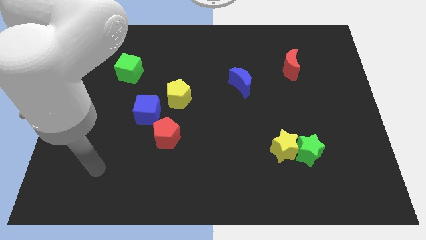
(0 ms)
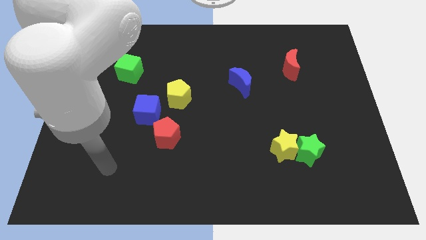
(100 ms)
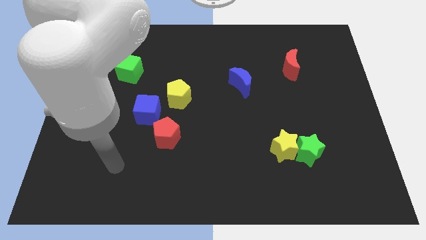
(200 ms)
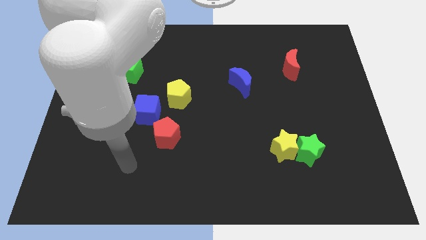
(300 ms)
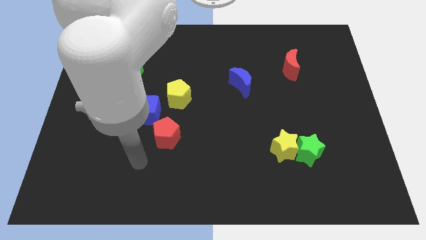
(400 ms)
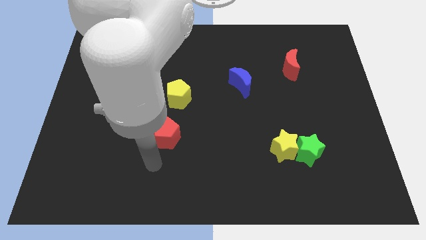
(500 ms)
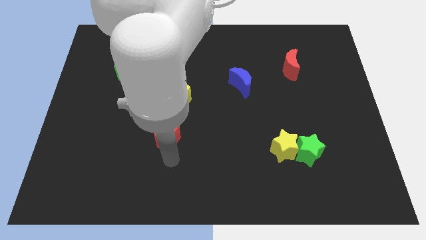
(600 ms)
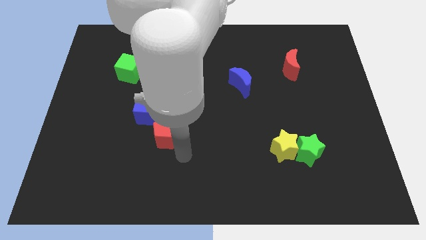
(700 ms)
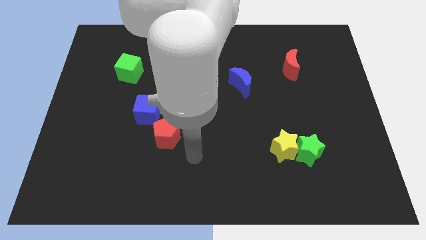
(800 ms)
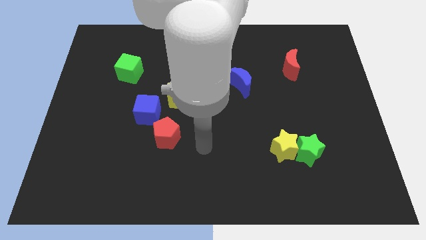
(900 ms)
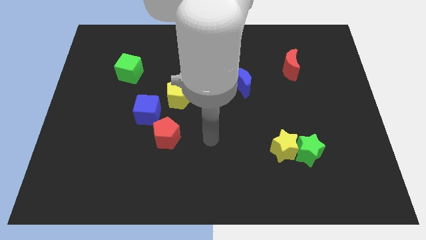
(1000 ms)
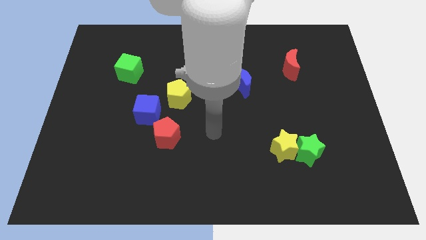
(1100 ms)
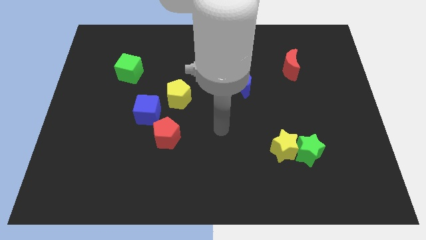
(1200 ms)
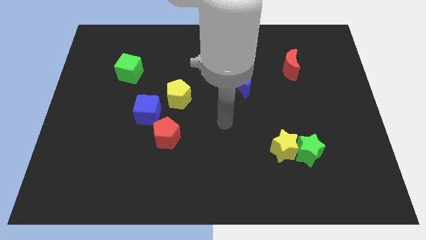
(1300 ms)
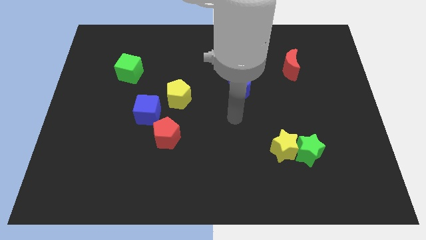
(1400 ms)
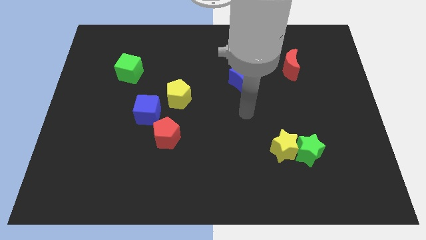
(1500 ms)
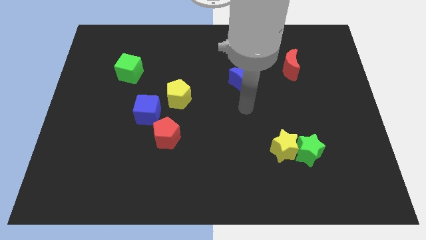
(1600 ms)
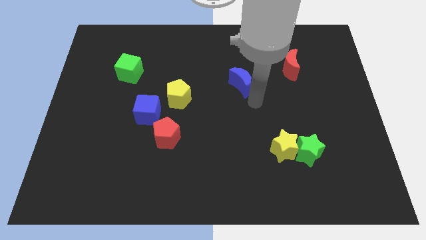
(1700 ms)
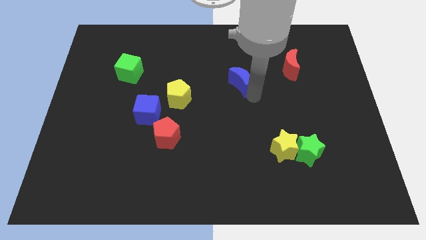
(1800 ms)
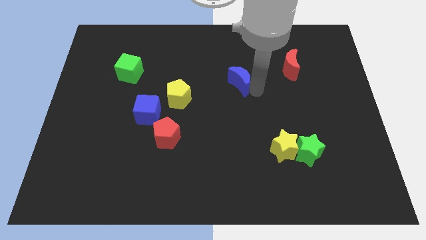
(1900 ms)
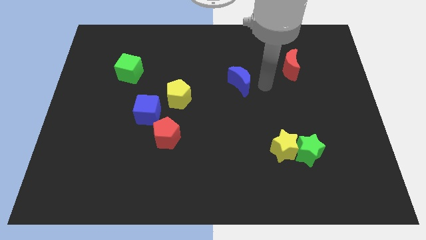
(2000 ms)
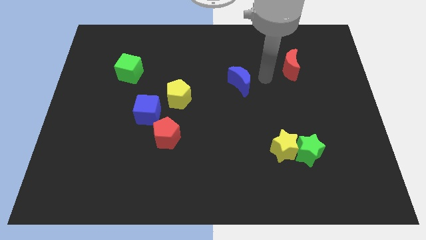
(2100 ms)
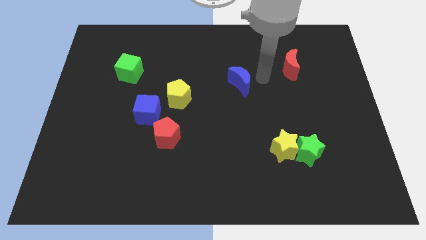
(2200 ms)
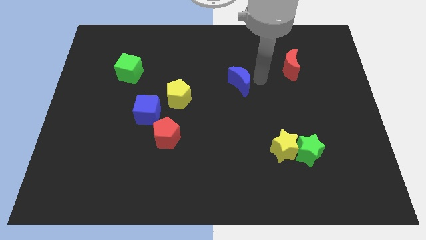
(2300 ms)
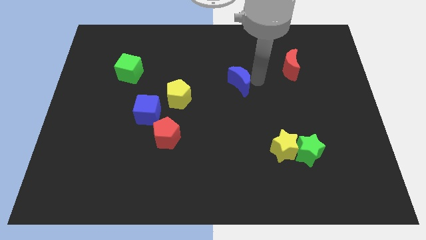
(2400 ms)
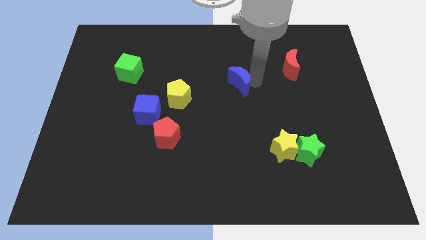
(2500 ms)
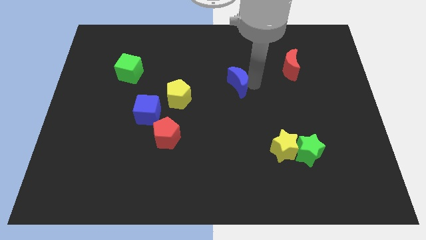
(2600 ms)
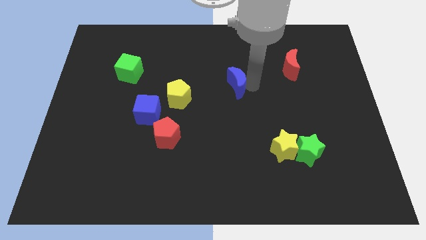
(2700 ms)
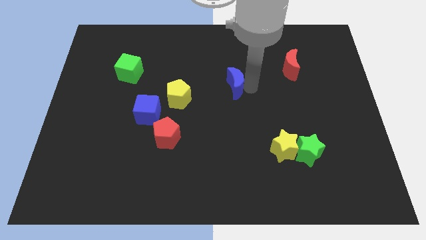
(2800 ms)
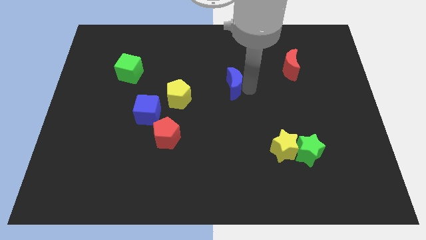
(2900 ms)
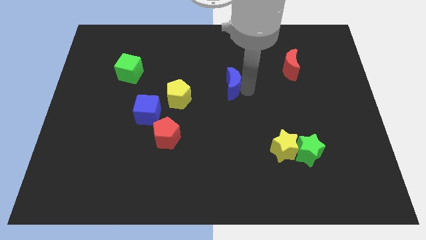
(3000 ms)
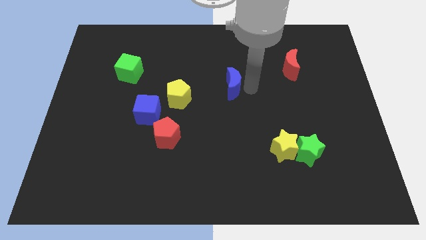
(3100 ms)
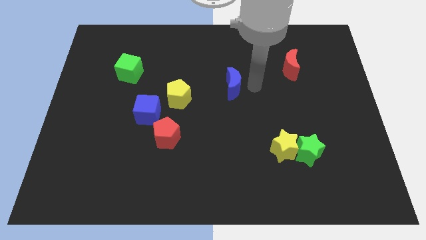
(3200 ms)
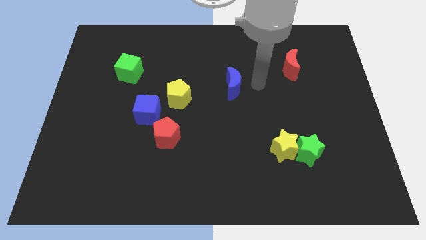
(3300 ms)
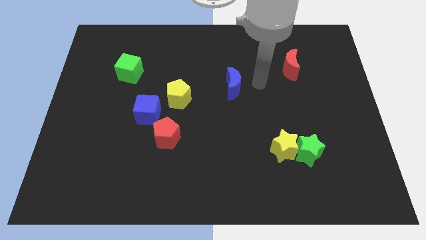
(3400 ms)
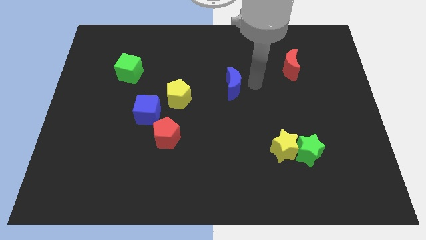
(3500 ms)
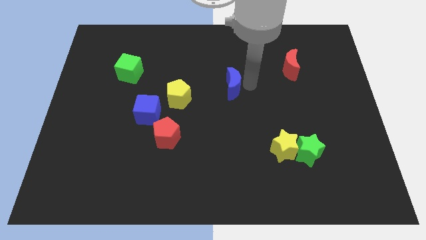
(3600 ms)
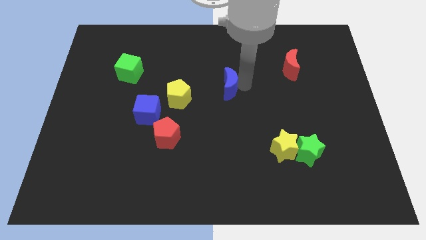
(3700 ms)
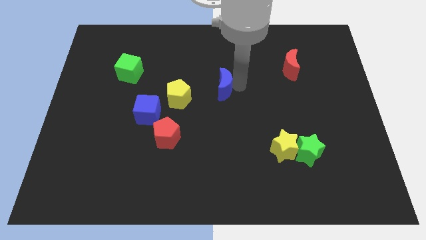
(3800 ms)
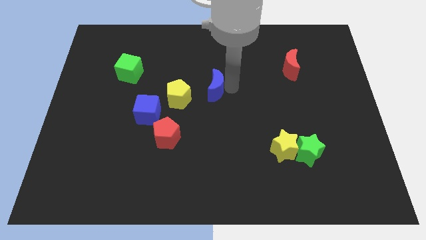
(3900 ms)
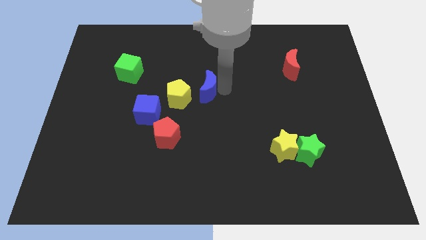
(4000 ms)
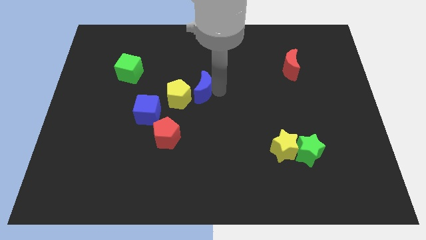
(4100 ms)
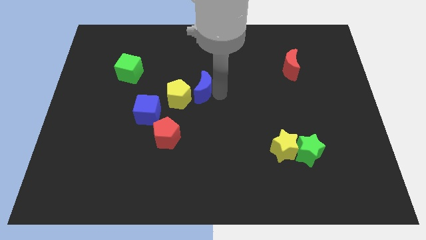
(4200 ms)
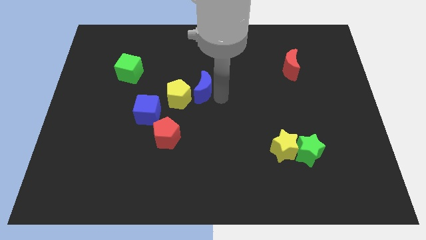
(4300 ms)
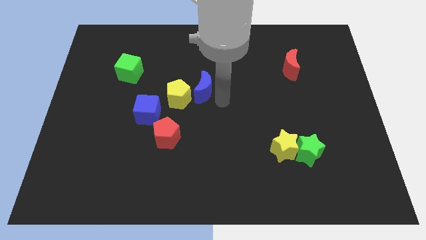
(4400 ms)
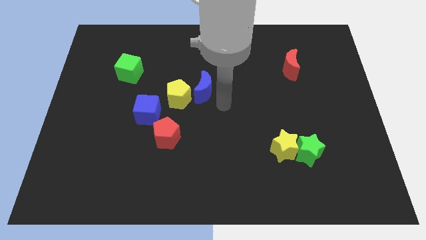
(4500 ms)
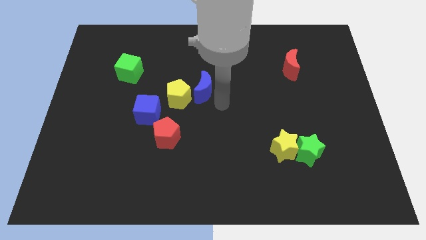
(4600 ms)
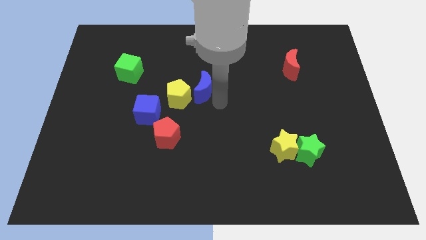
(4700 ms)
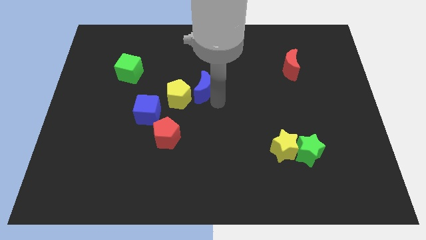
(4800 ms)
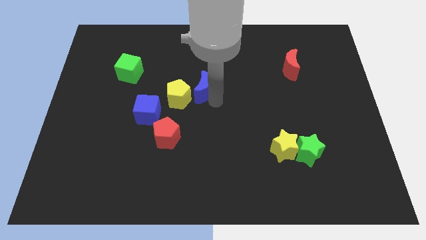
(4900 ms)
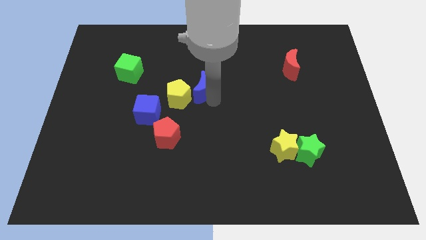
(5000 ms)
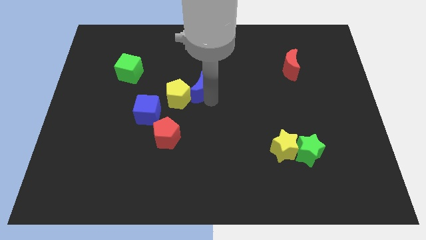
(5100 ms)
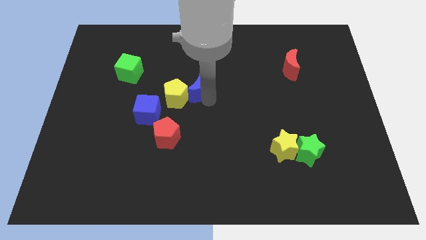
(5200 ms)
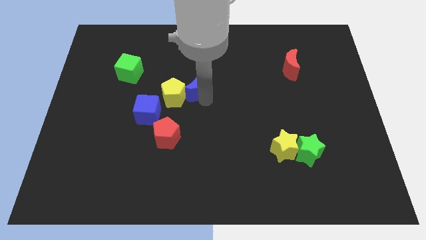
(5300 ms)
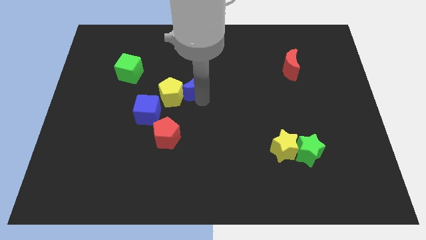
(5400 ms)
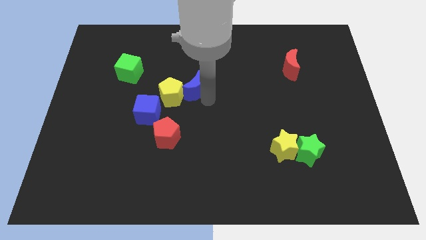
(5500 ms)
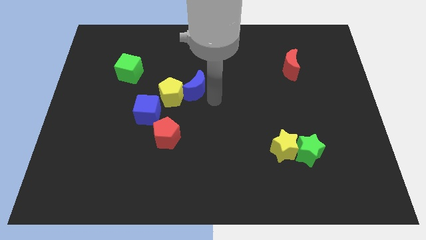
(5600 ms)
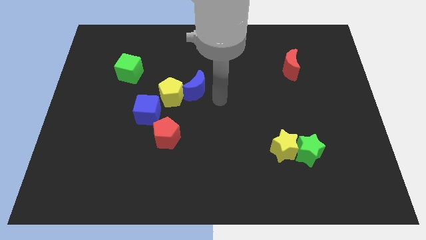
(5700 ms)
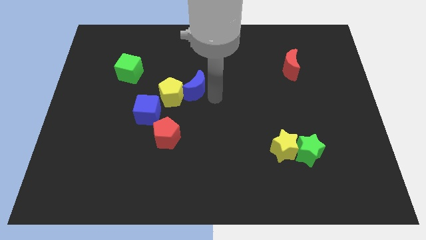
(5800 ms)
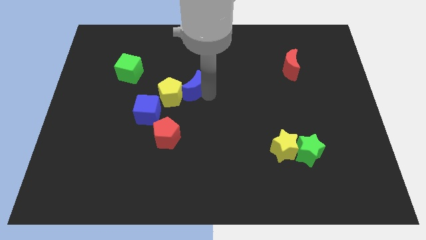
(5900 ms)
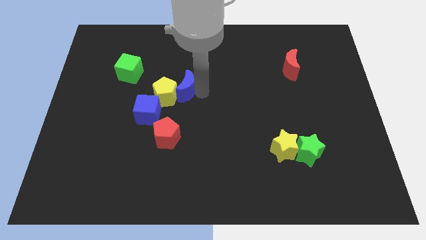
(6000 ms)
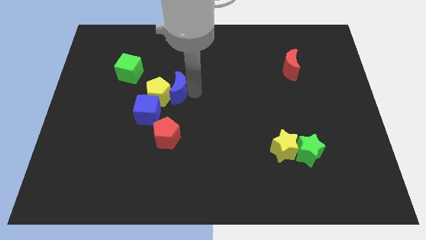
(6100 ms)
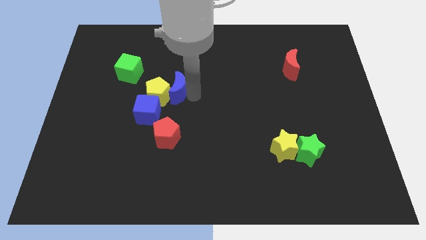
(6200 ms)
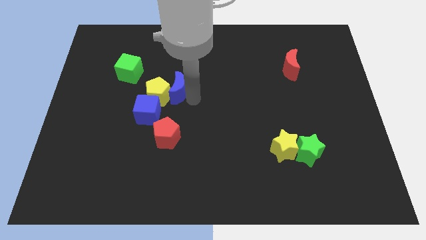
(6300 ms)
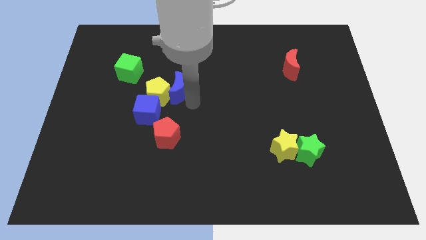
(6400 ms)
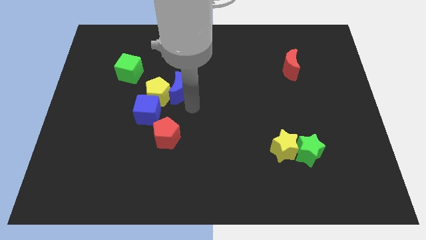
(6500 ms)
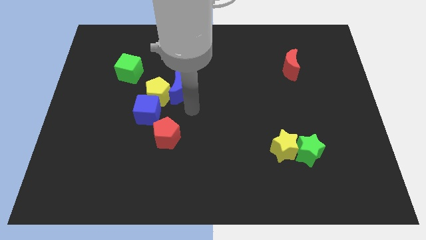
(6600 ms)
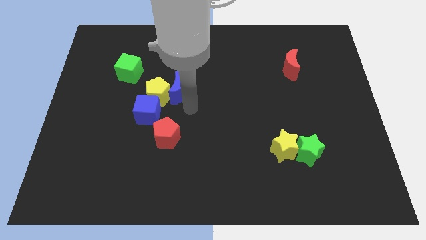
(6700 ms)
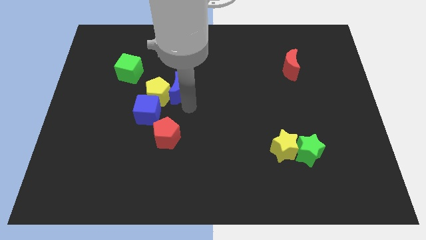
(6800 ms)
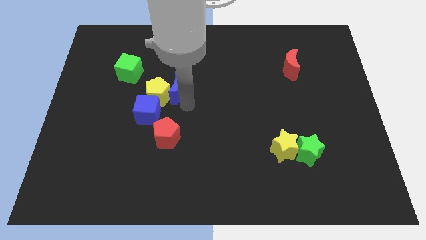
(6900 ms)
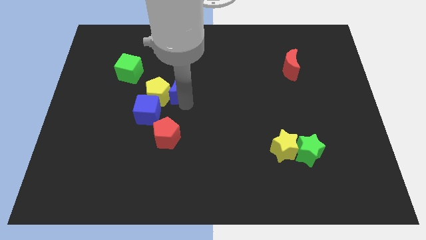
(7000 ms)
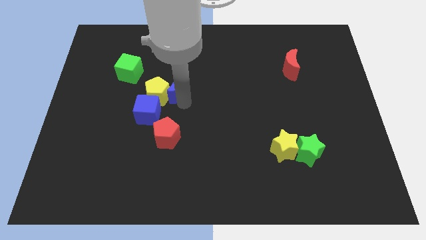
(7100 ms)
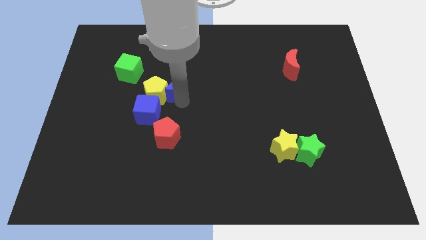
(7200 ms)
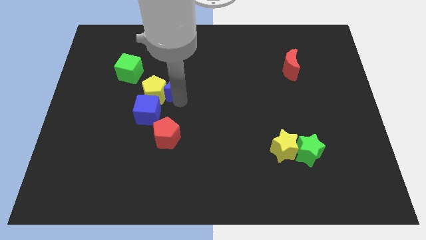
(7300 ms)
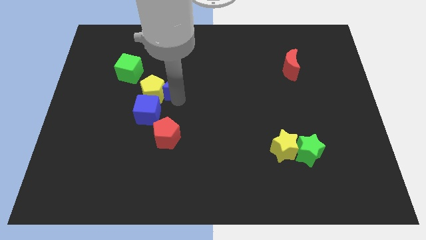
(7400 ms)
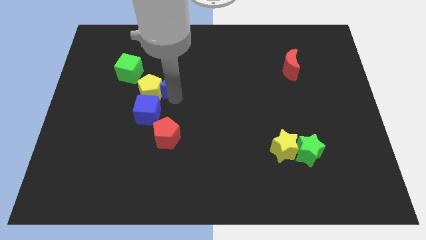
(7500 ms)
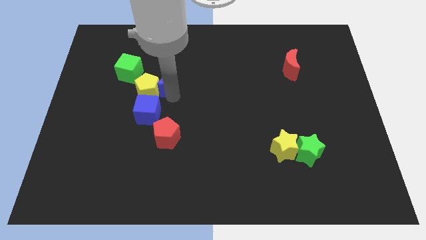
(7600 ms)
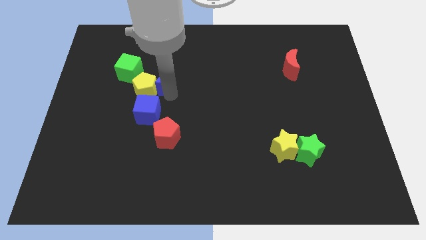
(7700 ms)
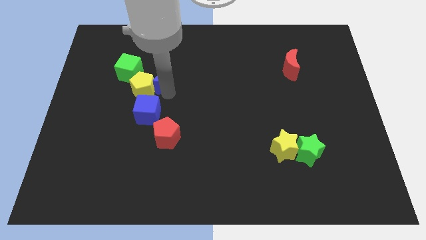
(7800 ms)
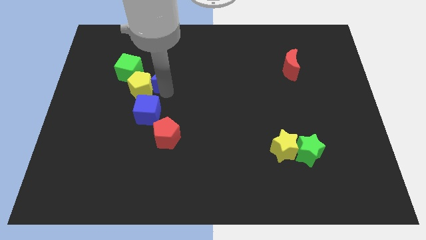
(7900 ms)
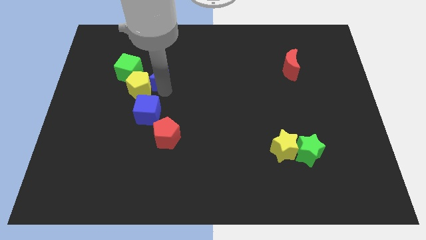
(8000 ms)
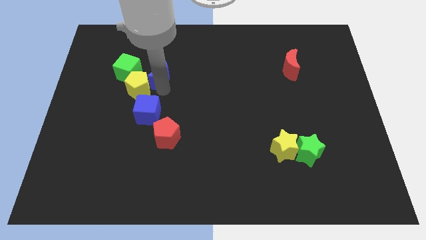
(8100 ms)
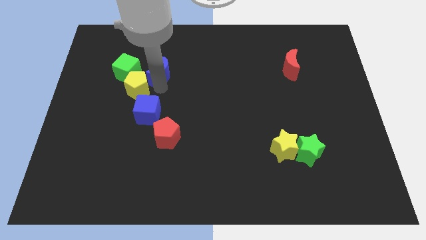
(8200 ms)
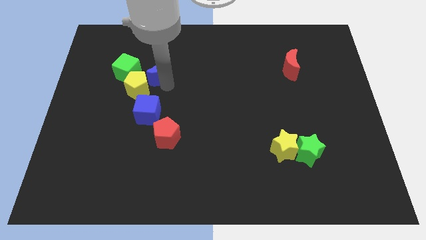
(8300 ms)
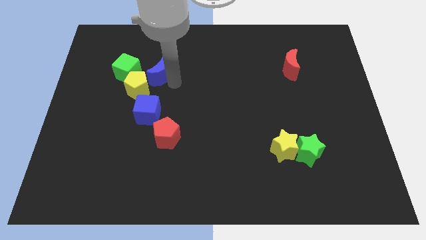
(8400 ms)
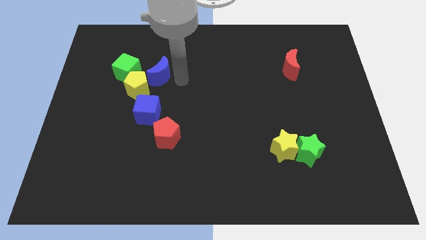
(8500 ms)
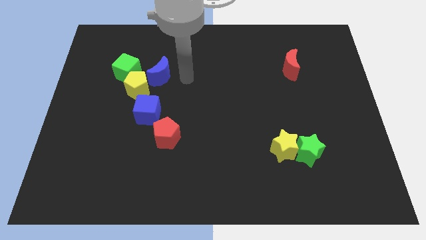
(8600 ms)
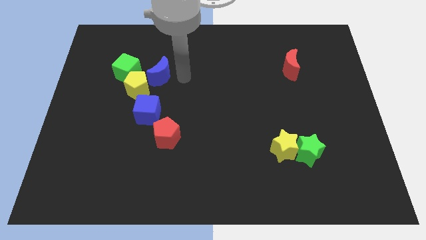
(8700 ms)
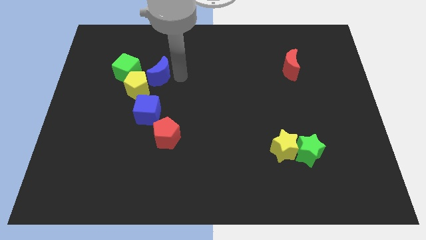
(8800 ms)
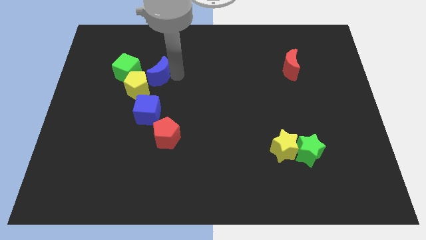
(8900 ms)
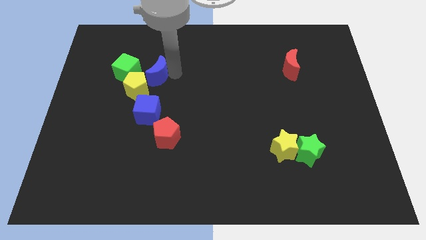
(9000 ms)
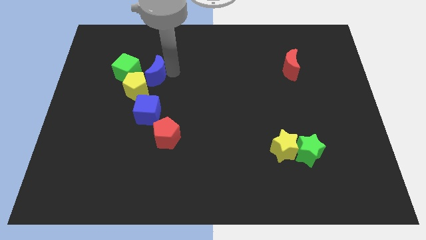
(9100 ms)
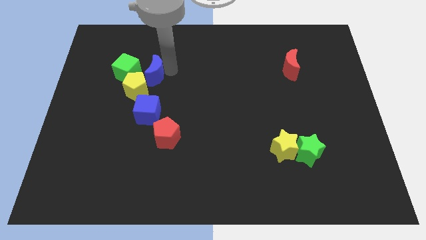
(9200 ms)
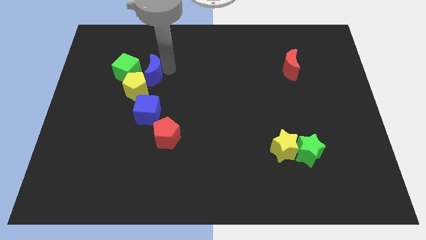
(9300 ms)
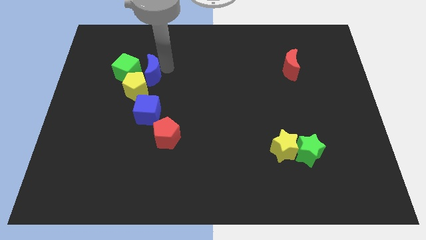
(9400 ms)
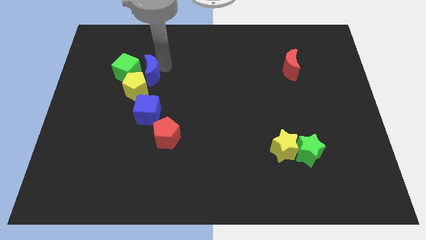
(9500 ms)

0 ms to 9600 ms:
slide the blue moon close to the green cube
